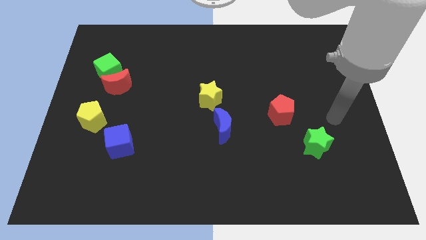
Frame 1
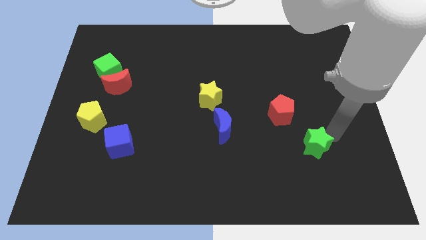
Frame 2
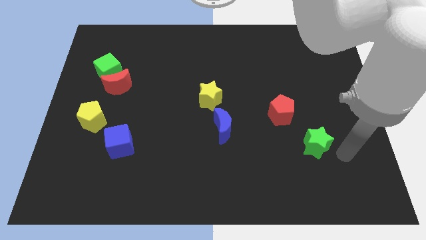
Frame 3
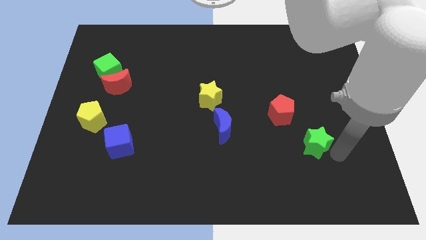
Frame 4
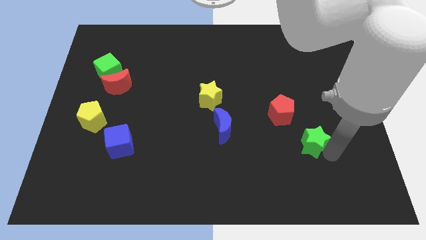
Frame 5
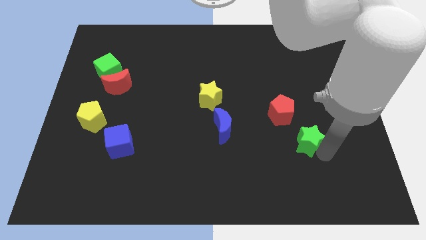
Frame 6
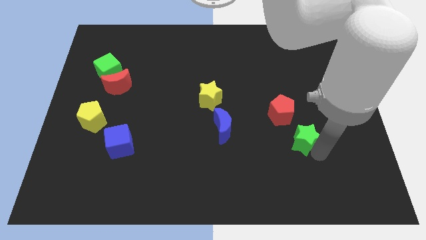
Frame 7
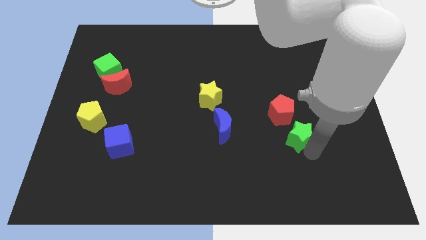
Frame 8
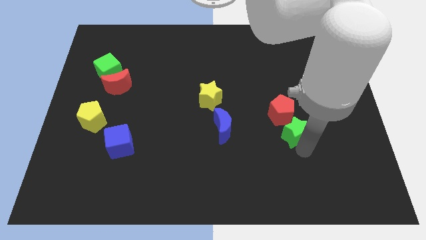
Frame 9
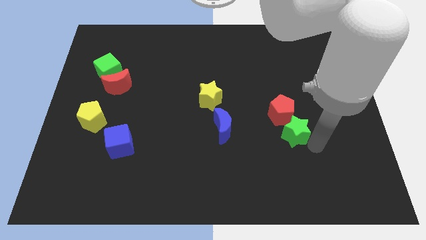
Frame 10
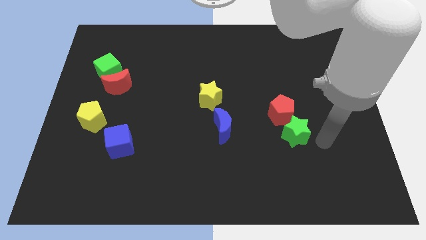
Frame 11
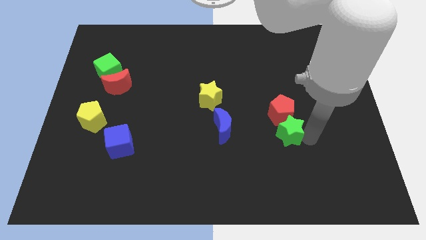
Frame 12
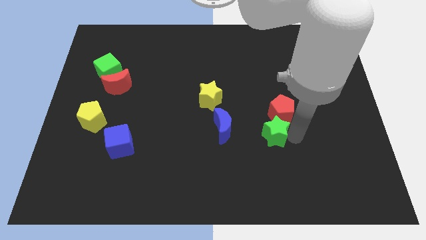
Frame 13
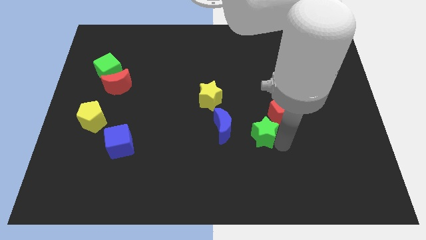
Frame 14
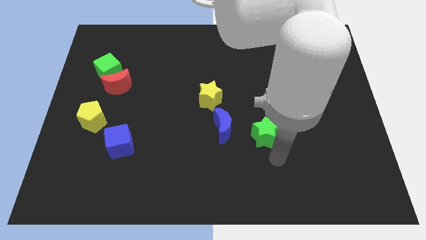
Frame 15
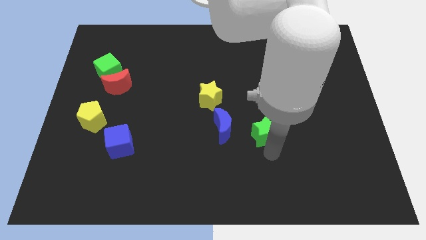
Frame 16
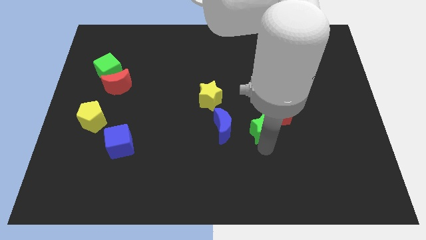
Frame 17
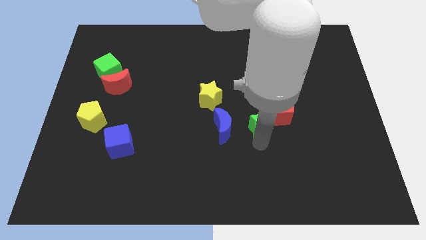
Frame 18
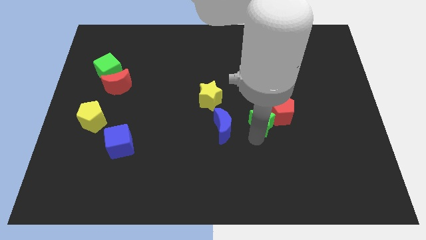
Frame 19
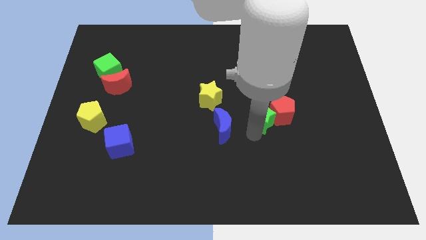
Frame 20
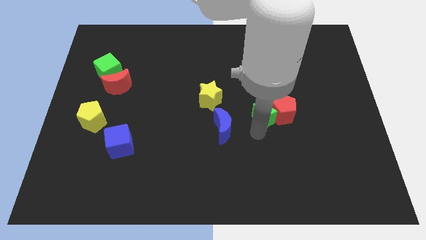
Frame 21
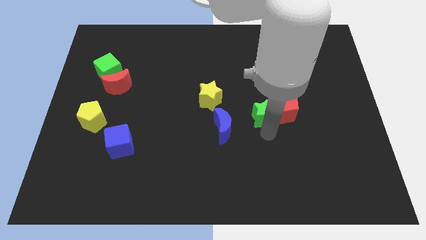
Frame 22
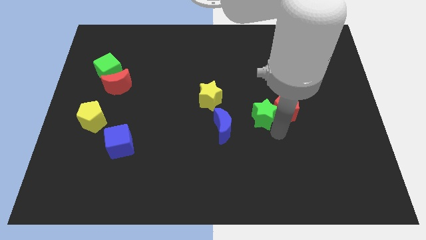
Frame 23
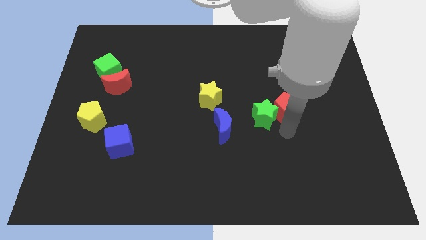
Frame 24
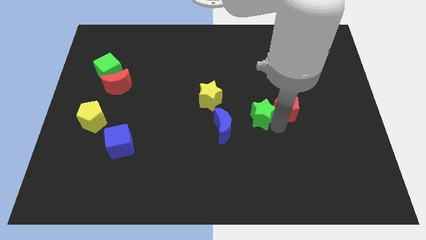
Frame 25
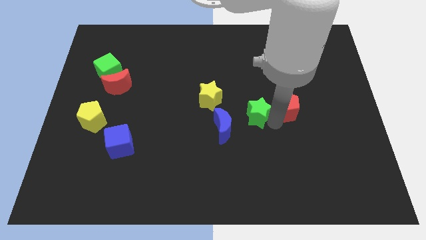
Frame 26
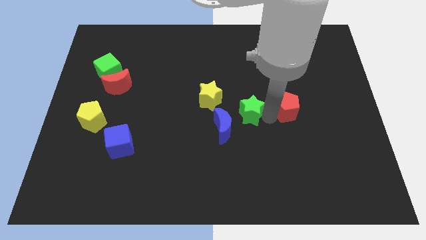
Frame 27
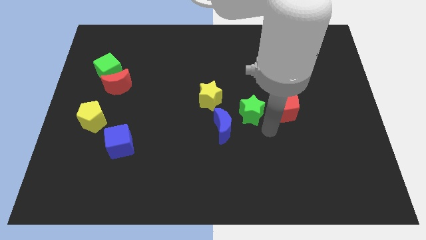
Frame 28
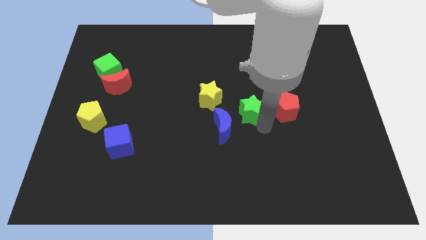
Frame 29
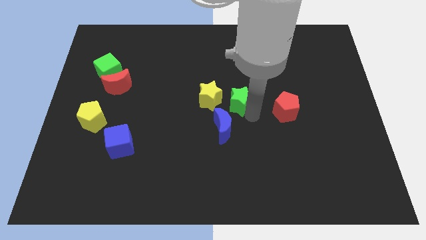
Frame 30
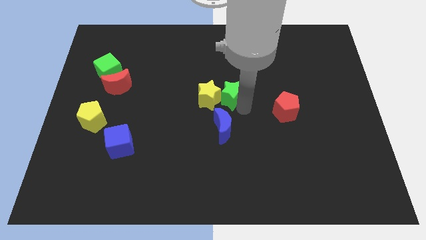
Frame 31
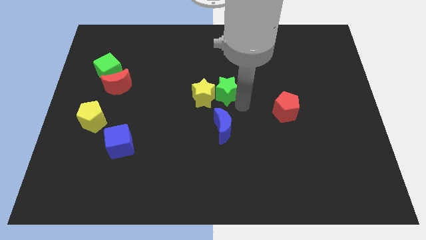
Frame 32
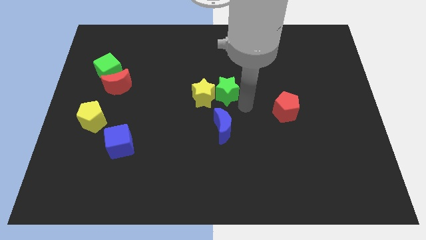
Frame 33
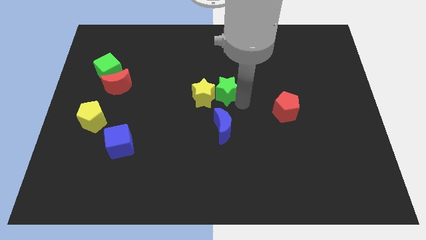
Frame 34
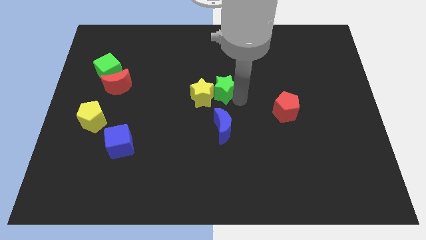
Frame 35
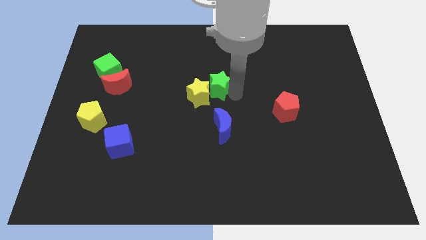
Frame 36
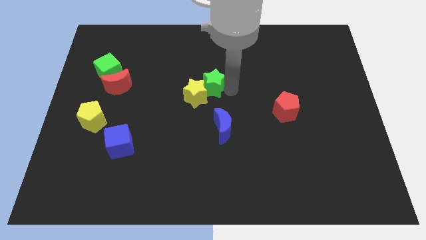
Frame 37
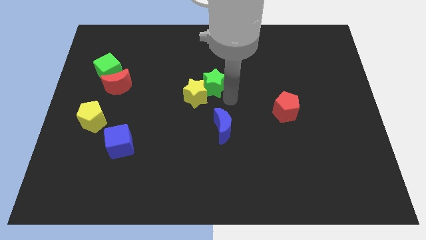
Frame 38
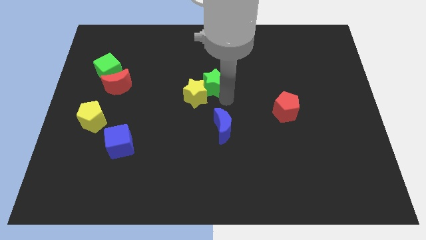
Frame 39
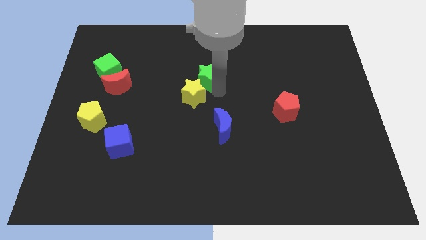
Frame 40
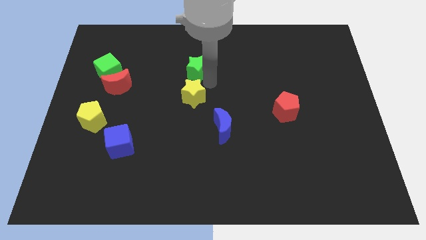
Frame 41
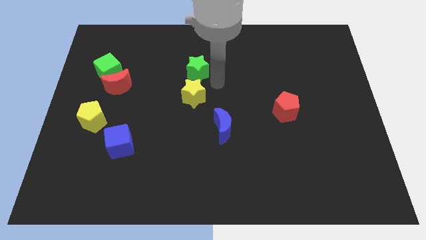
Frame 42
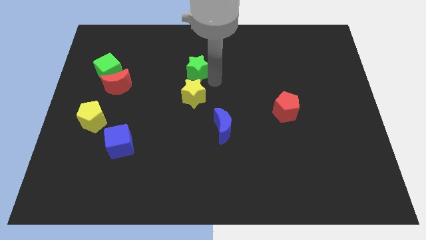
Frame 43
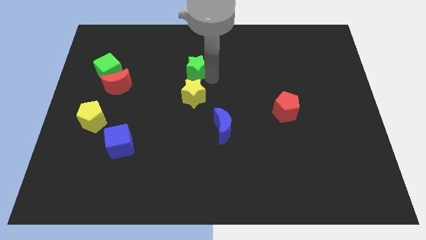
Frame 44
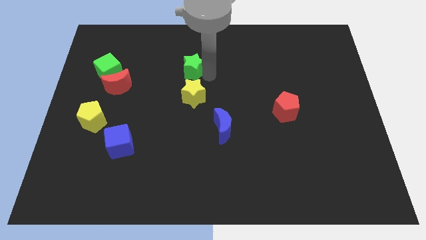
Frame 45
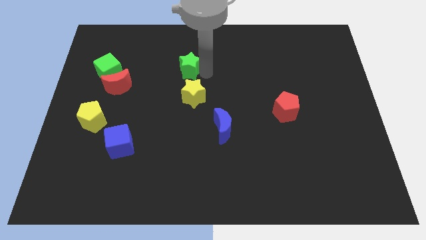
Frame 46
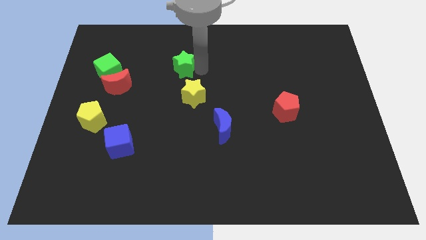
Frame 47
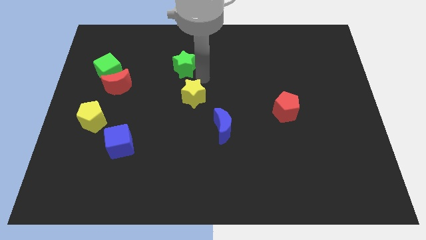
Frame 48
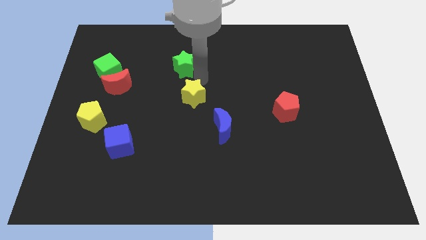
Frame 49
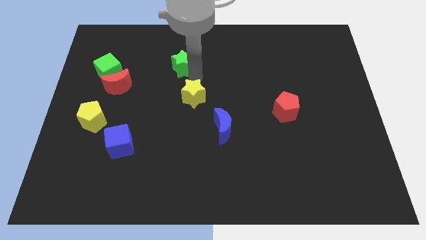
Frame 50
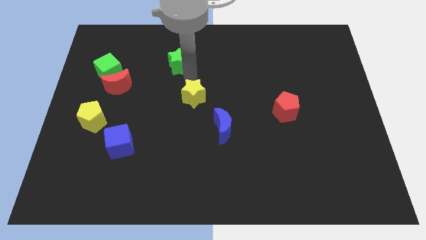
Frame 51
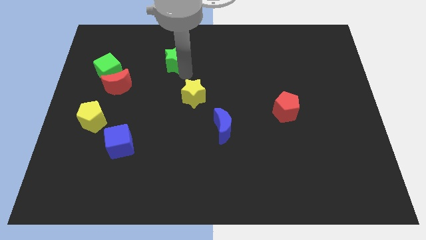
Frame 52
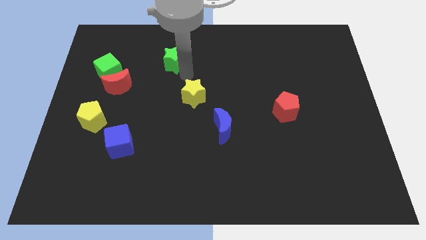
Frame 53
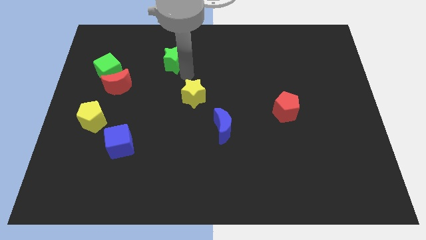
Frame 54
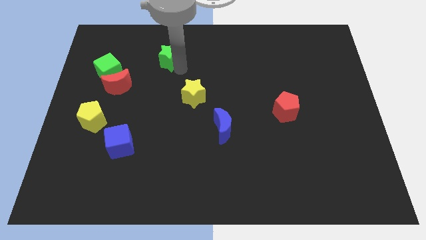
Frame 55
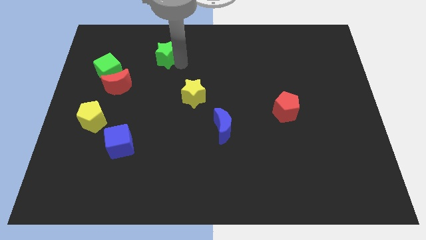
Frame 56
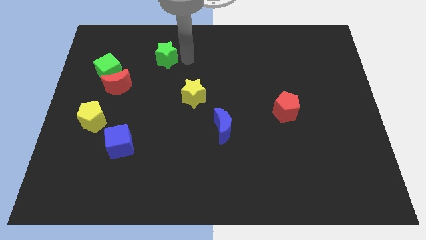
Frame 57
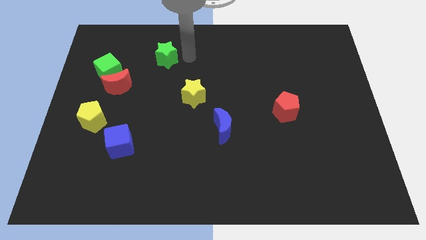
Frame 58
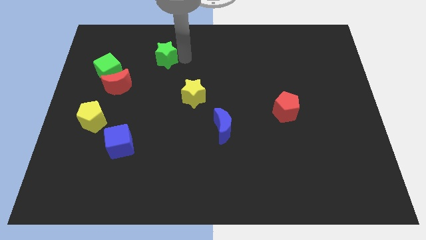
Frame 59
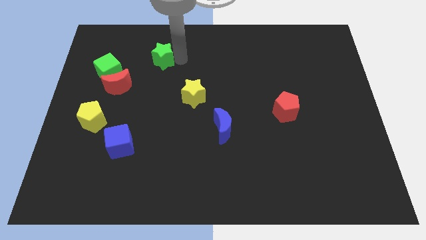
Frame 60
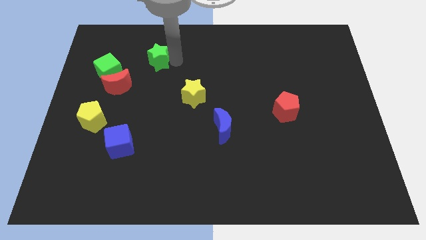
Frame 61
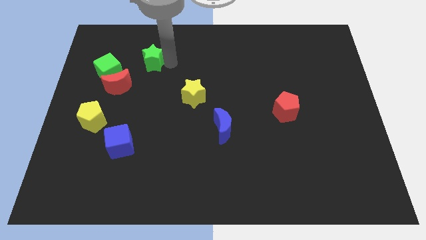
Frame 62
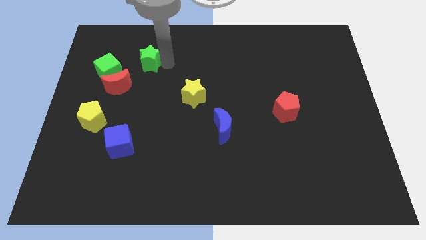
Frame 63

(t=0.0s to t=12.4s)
slide the green star to the top right of the green cube

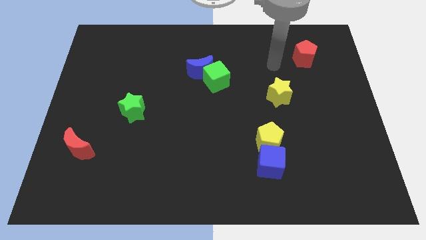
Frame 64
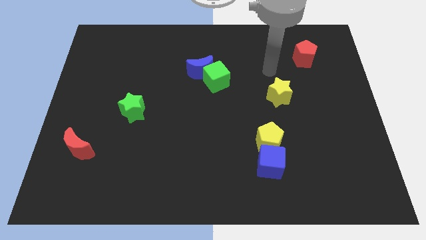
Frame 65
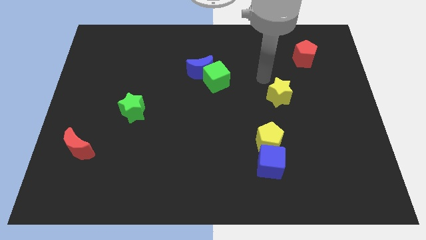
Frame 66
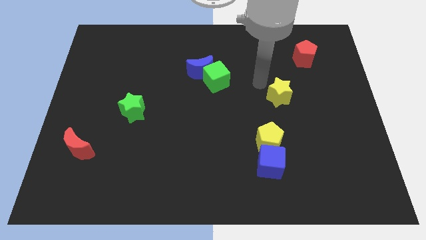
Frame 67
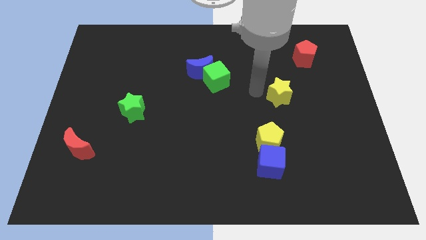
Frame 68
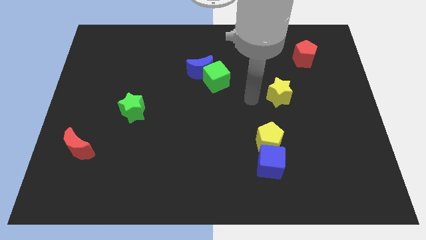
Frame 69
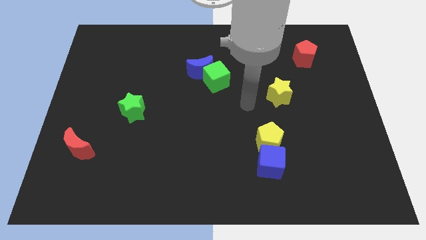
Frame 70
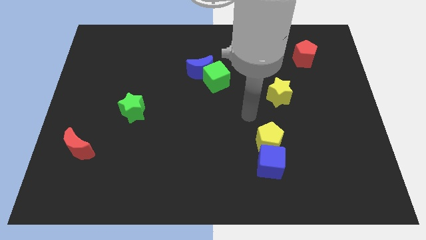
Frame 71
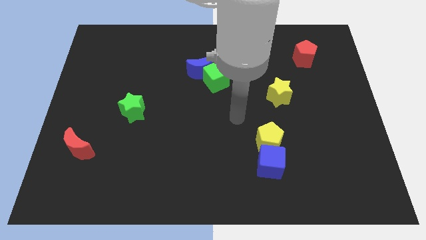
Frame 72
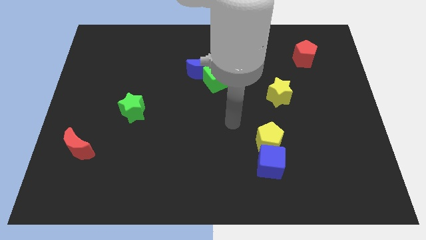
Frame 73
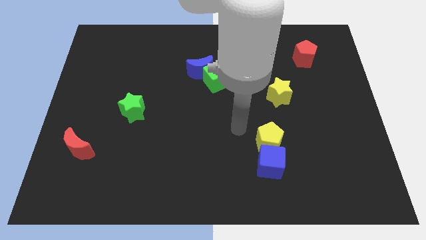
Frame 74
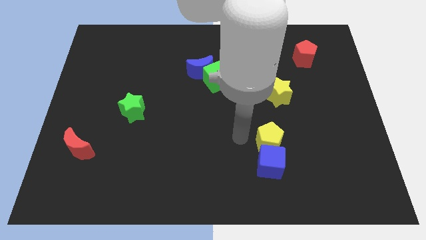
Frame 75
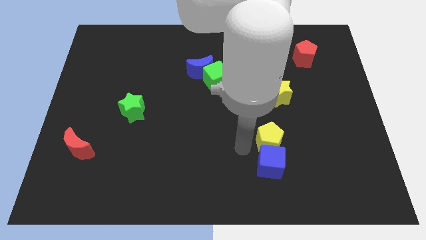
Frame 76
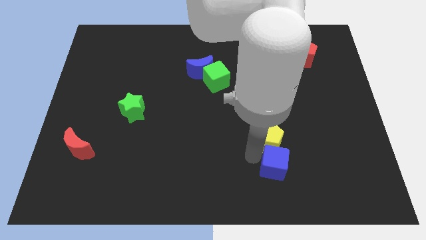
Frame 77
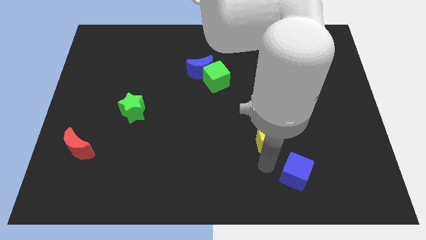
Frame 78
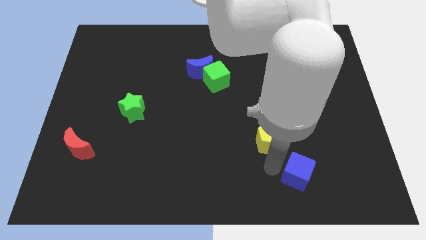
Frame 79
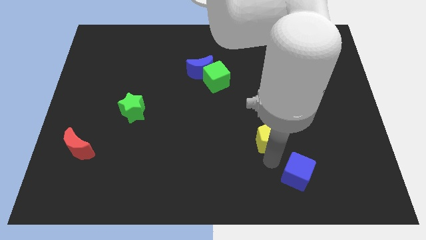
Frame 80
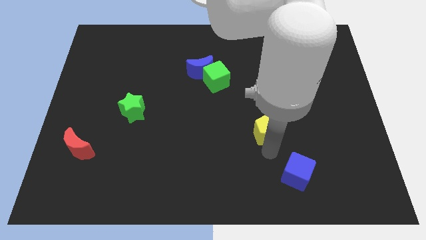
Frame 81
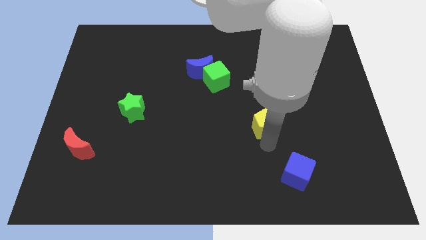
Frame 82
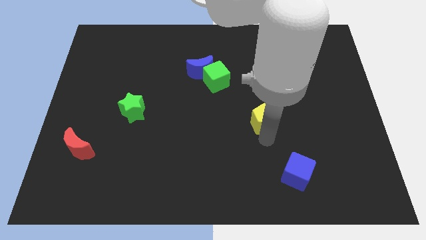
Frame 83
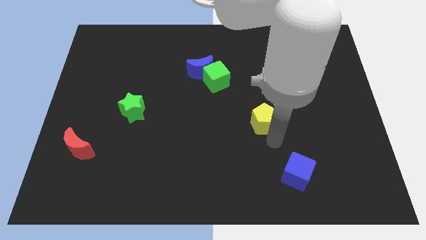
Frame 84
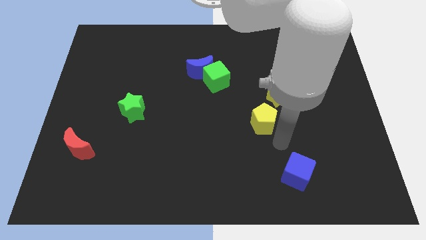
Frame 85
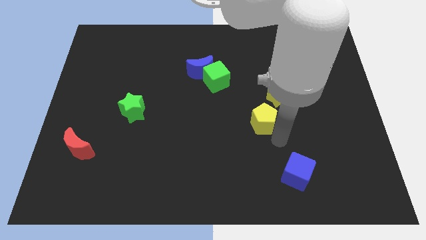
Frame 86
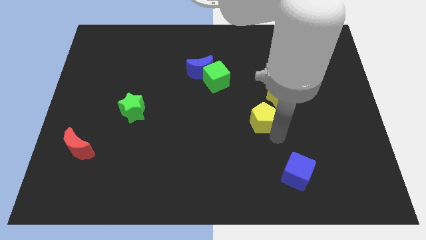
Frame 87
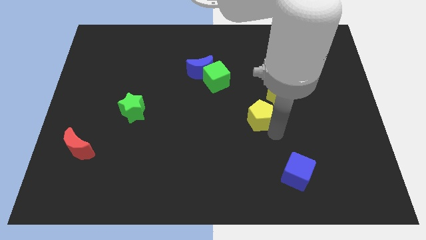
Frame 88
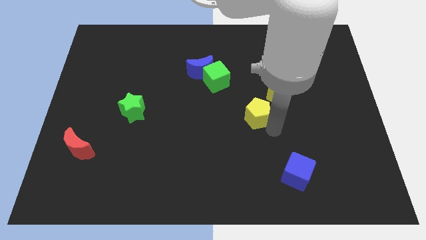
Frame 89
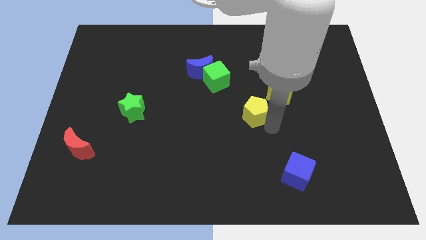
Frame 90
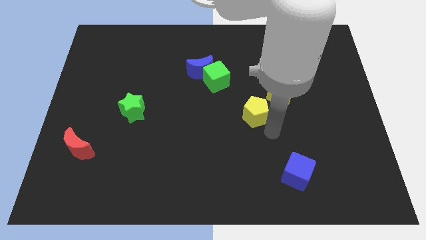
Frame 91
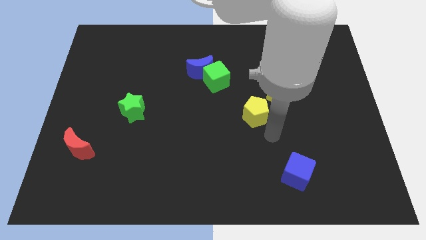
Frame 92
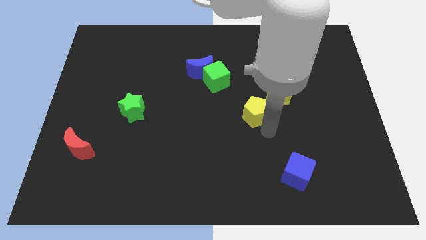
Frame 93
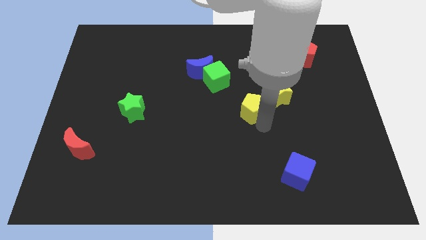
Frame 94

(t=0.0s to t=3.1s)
move the yellow pentagon to the bottom right of the green cube
